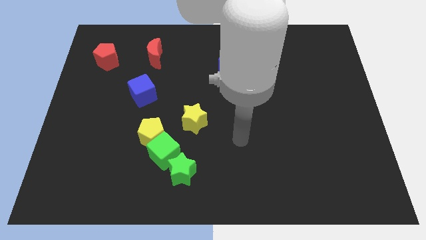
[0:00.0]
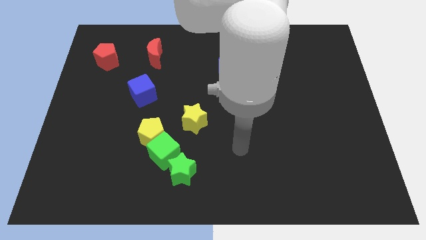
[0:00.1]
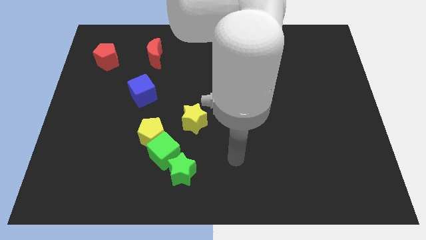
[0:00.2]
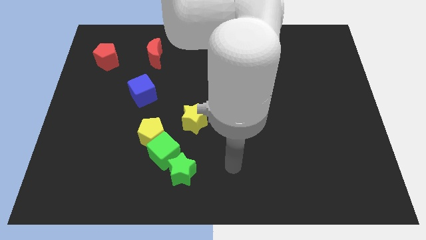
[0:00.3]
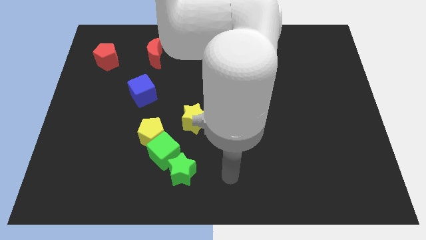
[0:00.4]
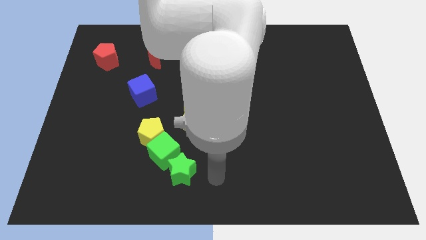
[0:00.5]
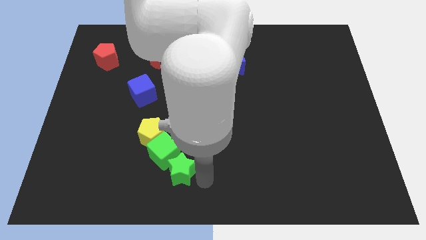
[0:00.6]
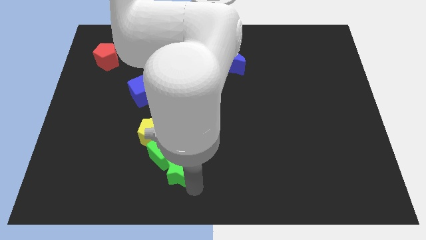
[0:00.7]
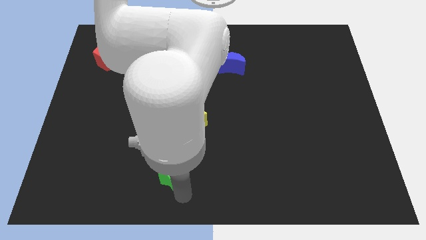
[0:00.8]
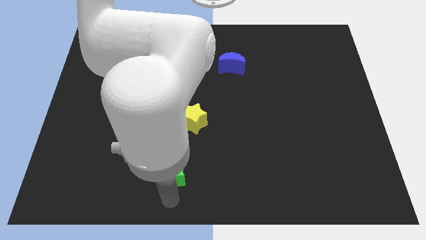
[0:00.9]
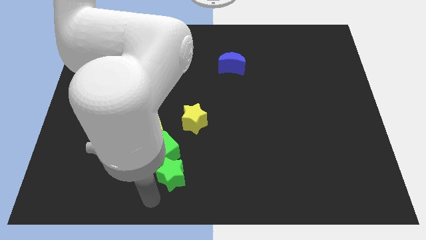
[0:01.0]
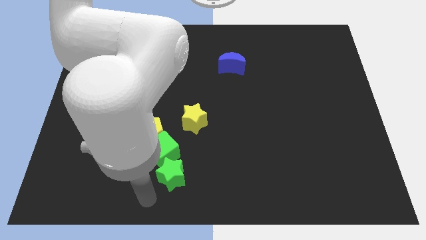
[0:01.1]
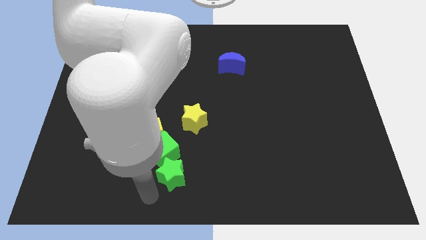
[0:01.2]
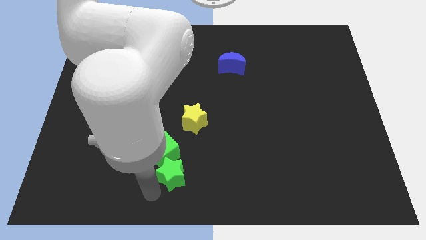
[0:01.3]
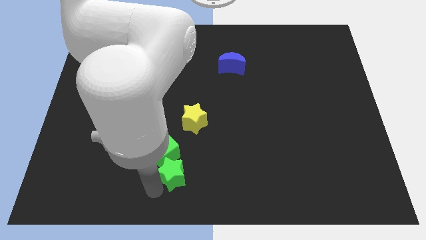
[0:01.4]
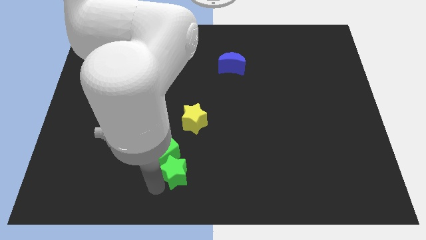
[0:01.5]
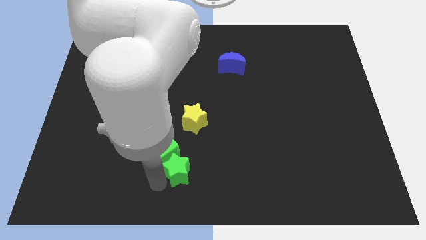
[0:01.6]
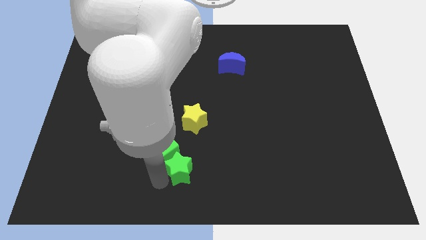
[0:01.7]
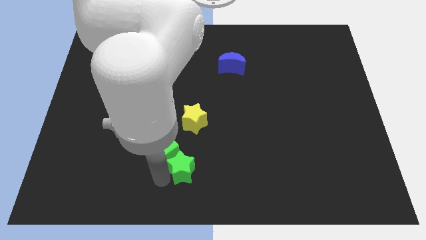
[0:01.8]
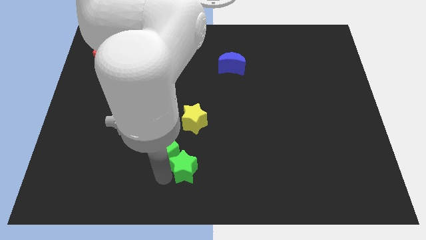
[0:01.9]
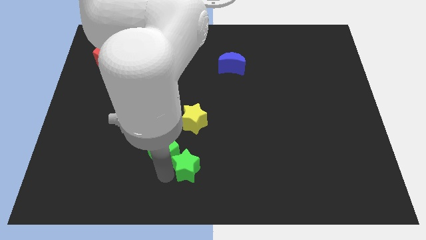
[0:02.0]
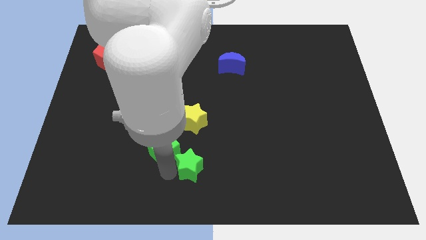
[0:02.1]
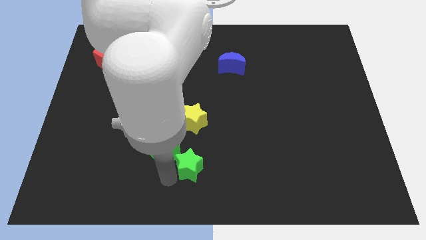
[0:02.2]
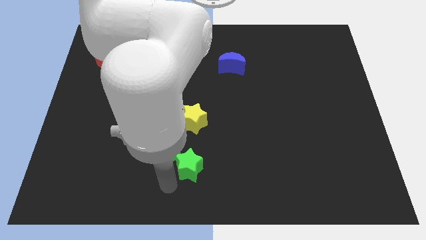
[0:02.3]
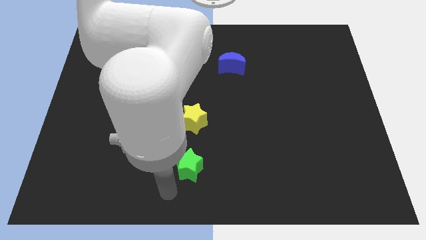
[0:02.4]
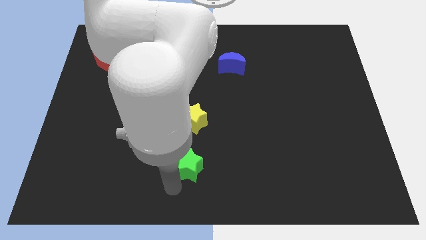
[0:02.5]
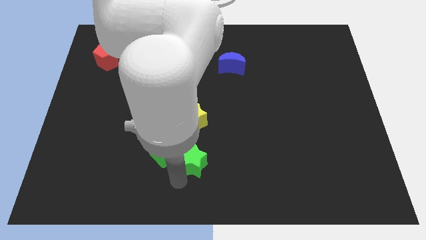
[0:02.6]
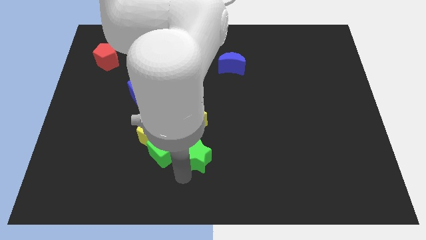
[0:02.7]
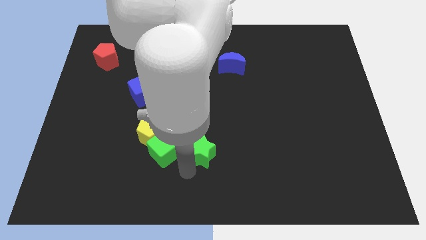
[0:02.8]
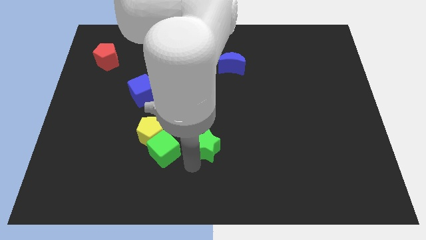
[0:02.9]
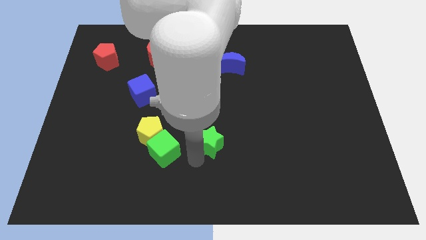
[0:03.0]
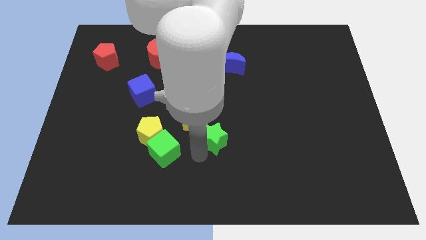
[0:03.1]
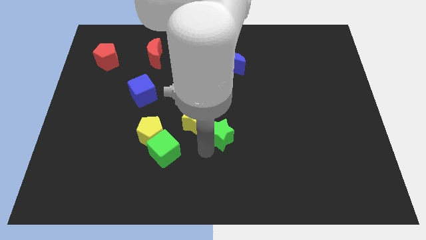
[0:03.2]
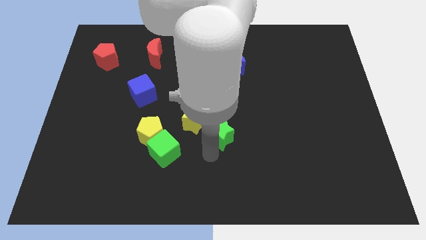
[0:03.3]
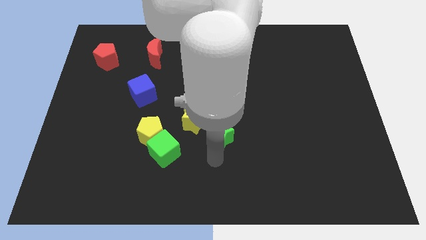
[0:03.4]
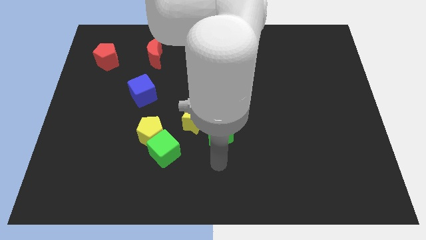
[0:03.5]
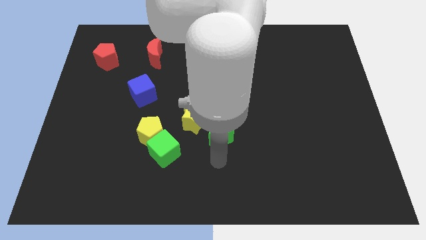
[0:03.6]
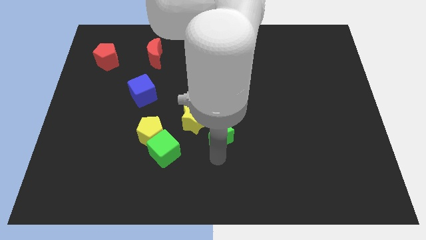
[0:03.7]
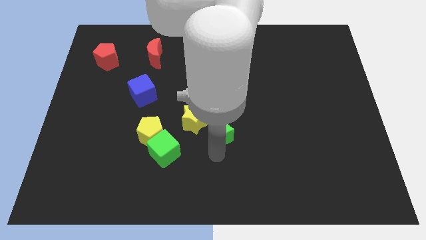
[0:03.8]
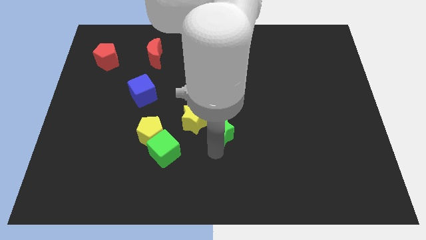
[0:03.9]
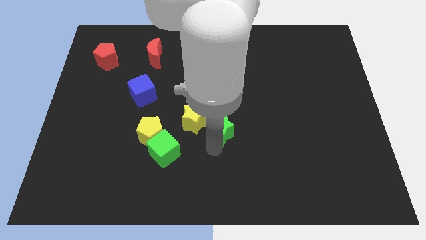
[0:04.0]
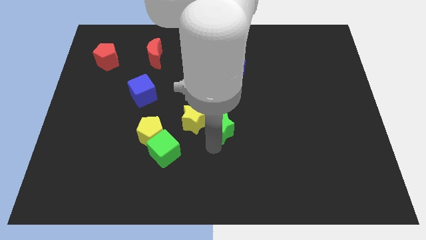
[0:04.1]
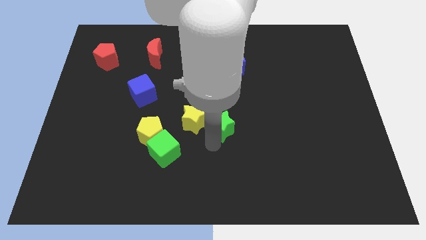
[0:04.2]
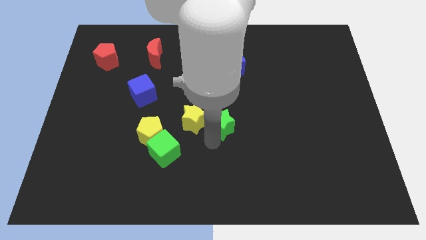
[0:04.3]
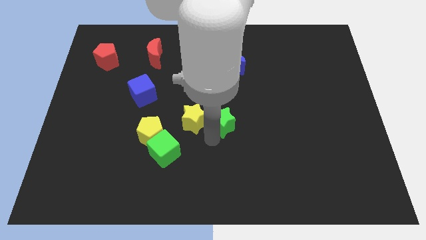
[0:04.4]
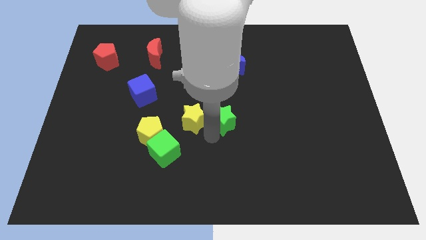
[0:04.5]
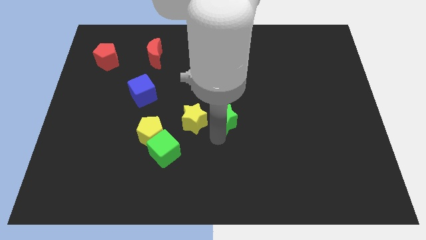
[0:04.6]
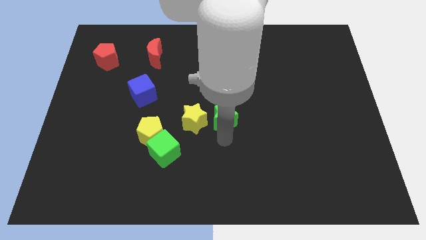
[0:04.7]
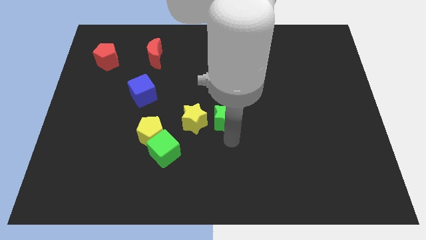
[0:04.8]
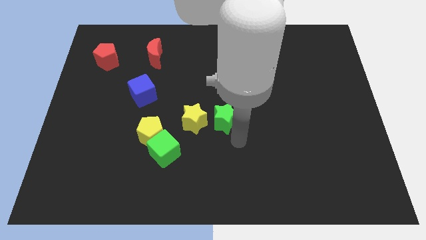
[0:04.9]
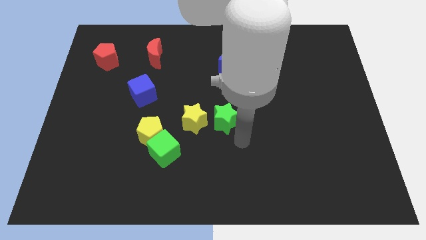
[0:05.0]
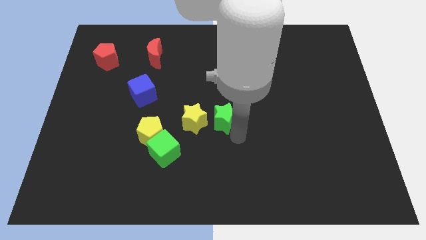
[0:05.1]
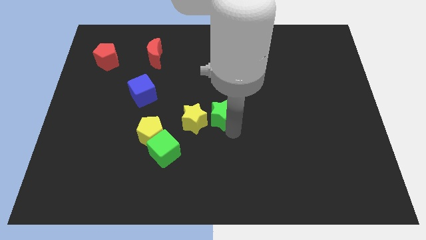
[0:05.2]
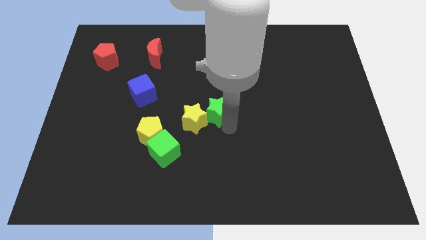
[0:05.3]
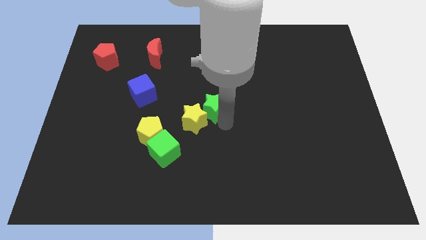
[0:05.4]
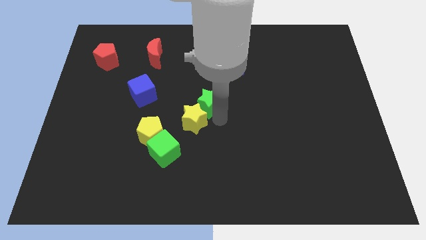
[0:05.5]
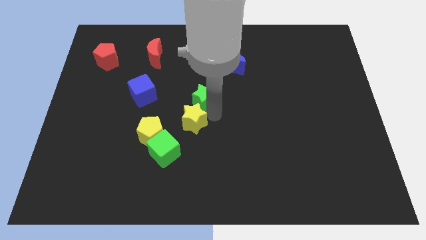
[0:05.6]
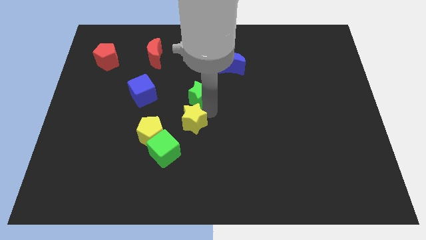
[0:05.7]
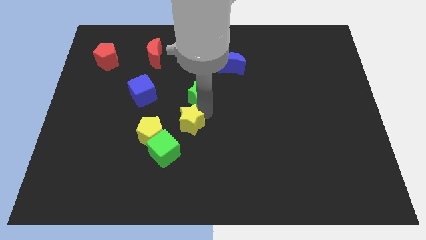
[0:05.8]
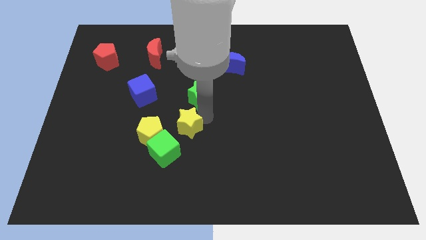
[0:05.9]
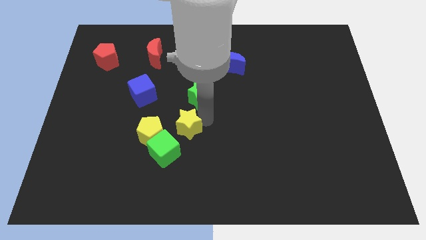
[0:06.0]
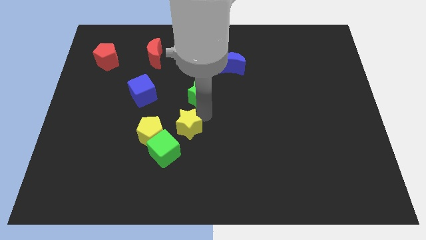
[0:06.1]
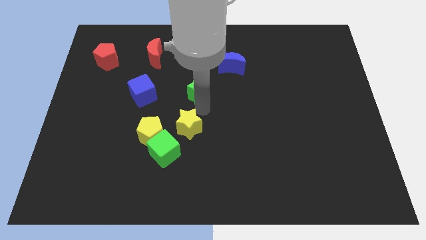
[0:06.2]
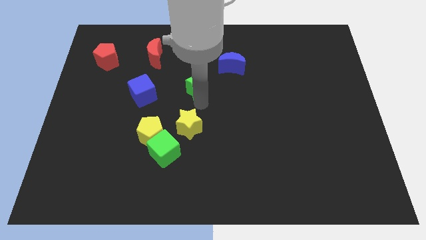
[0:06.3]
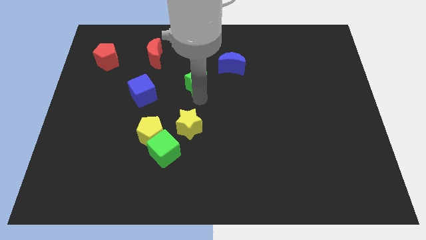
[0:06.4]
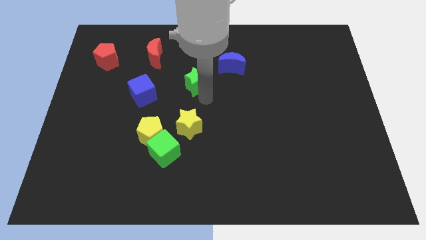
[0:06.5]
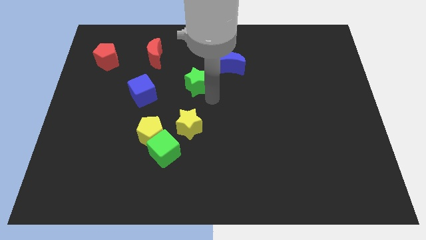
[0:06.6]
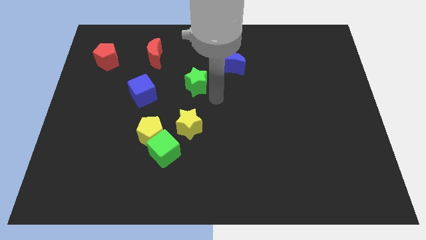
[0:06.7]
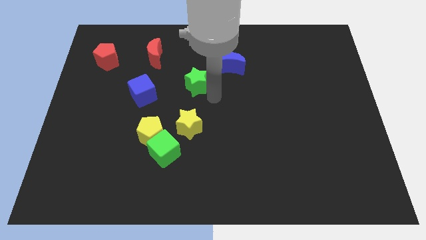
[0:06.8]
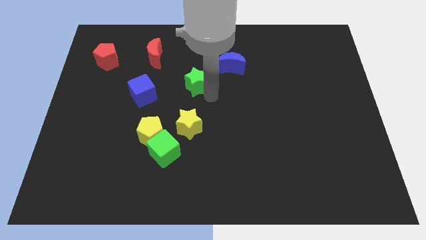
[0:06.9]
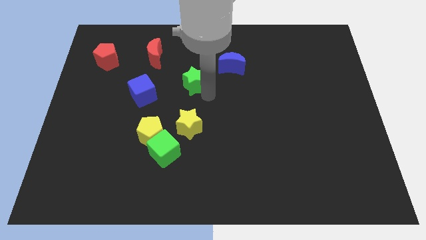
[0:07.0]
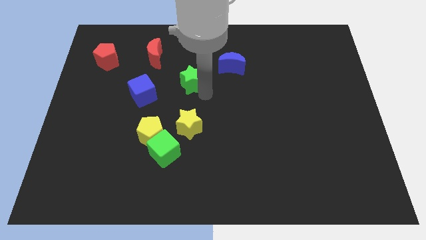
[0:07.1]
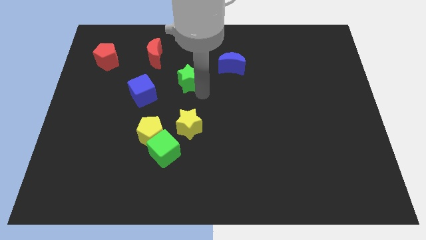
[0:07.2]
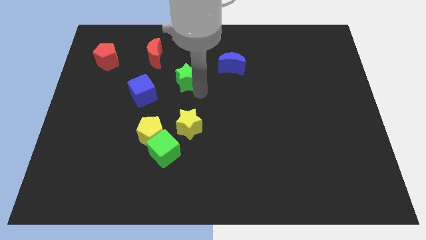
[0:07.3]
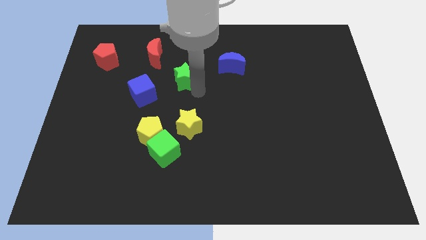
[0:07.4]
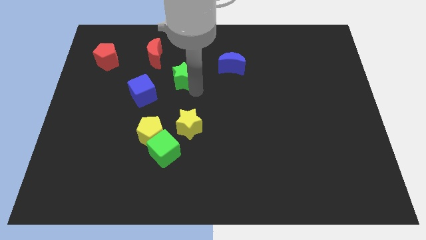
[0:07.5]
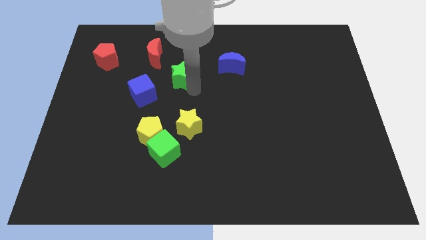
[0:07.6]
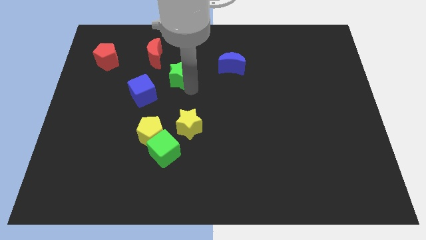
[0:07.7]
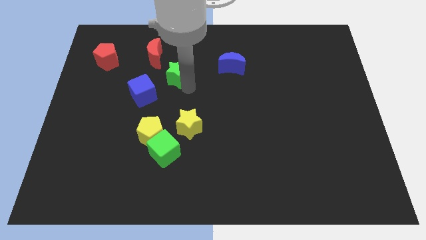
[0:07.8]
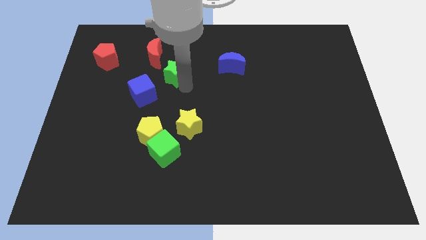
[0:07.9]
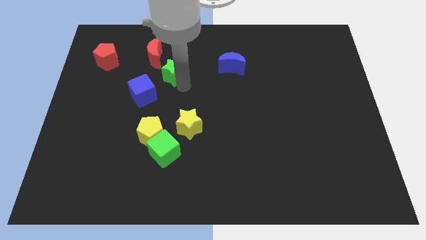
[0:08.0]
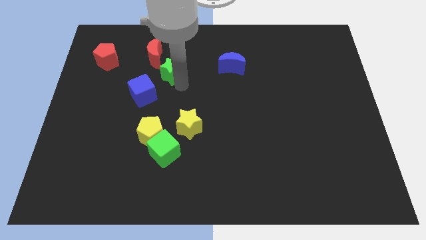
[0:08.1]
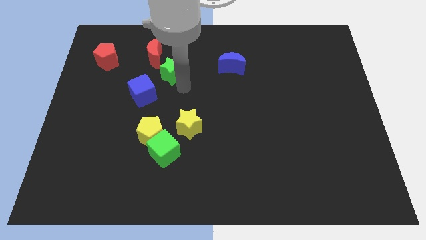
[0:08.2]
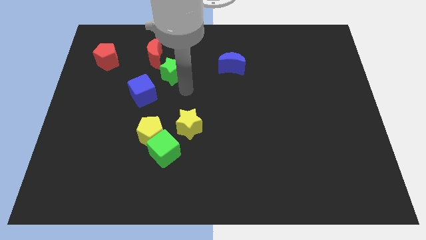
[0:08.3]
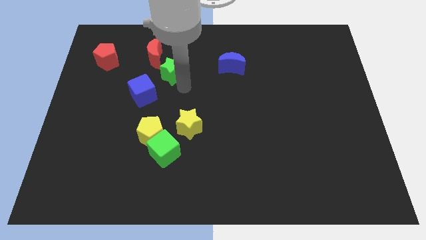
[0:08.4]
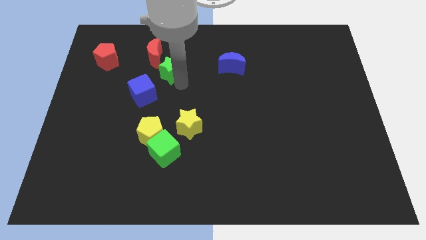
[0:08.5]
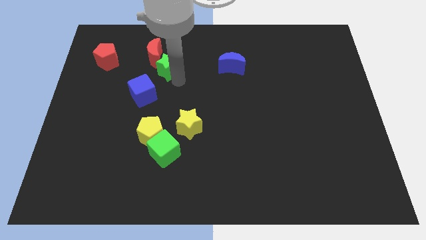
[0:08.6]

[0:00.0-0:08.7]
move the green star towards the red moon
